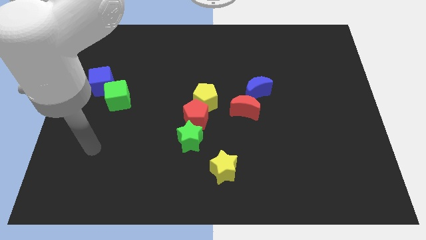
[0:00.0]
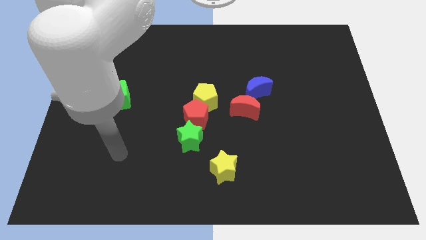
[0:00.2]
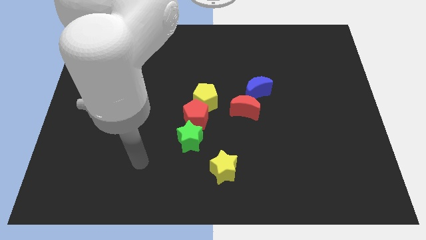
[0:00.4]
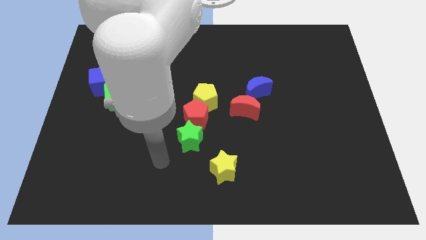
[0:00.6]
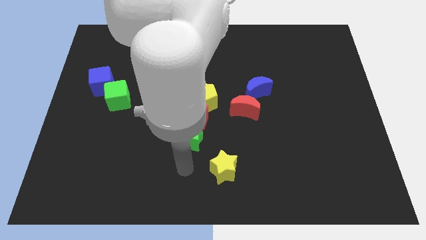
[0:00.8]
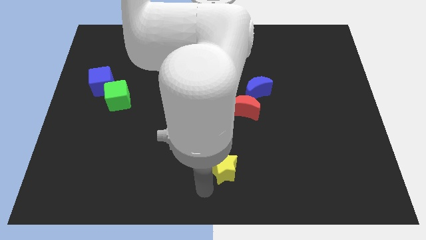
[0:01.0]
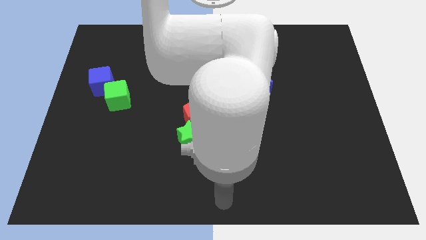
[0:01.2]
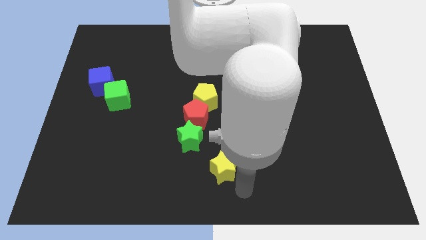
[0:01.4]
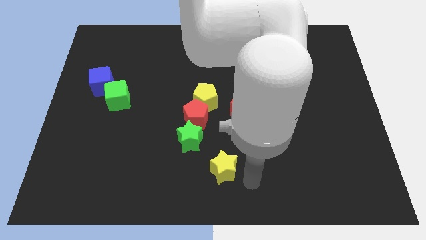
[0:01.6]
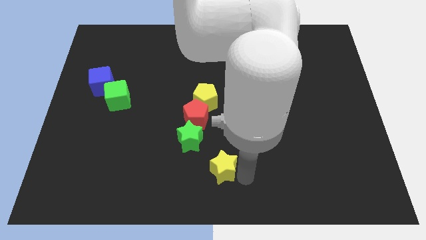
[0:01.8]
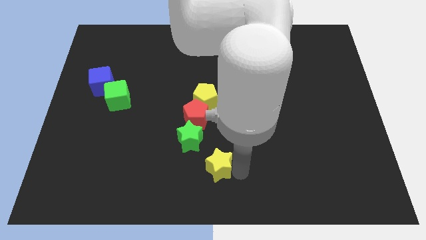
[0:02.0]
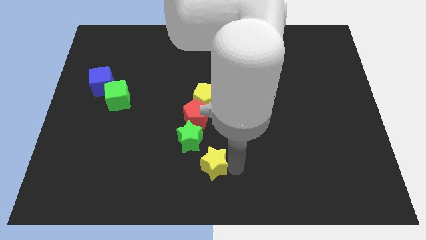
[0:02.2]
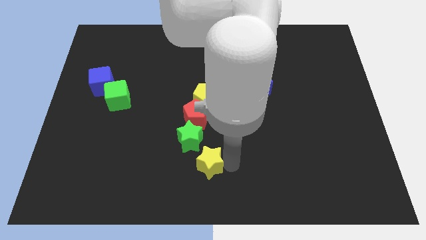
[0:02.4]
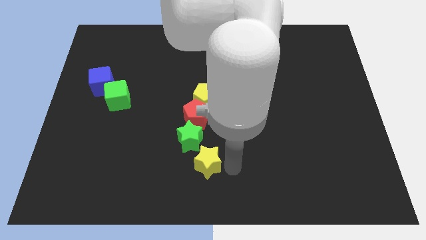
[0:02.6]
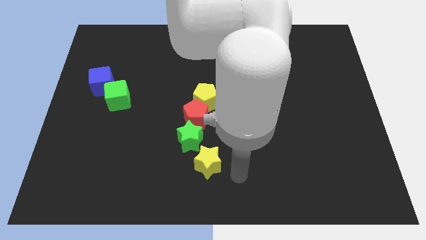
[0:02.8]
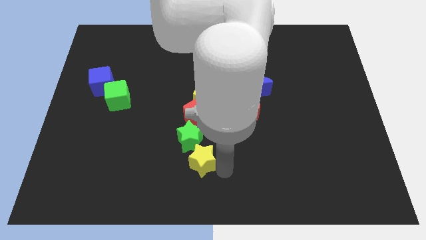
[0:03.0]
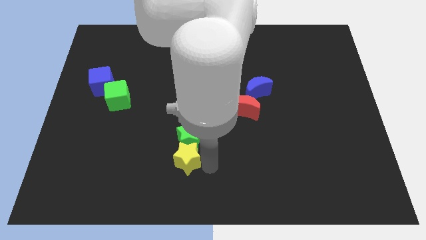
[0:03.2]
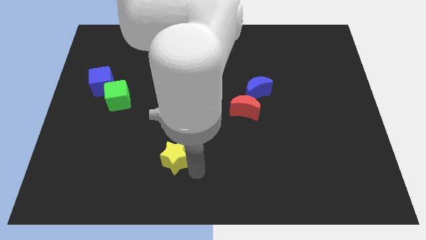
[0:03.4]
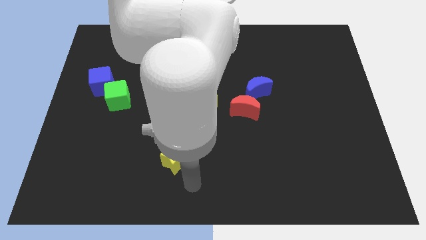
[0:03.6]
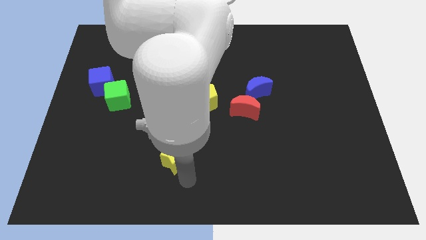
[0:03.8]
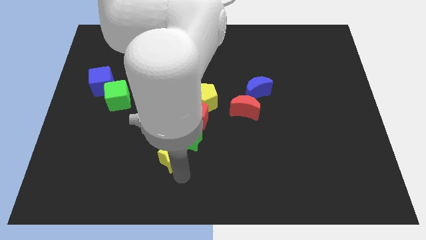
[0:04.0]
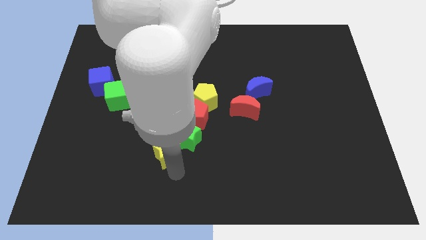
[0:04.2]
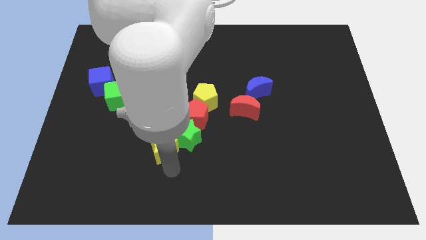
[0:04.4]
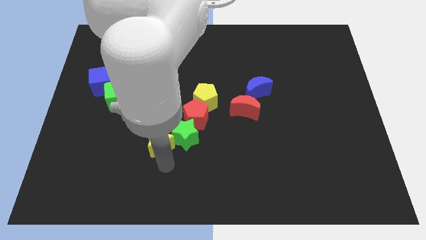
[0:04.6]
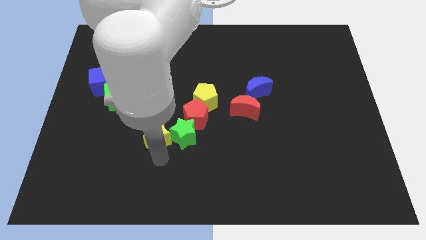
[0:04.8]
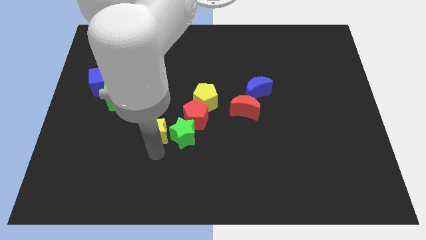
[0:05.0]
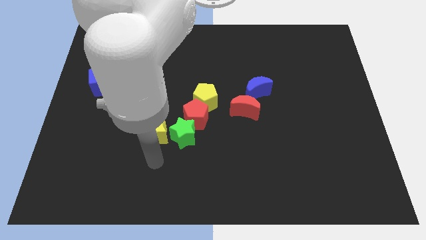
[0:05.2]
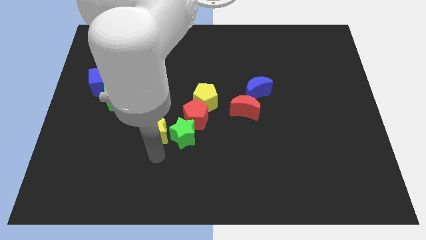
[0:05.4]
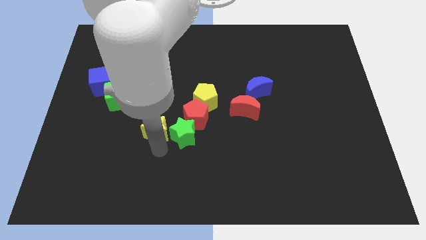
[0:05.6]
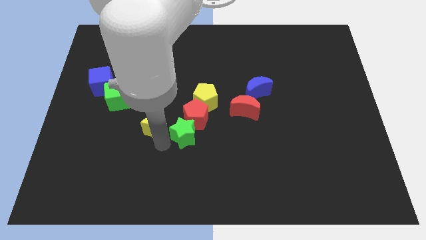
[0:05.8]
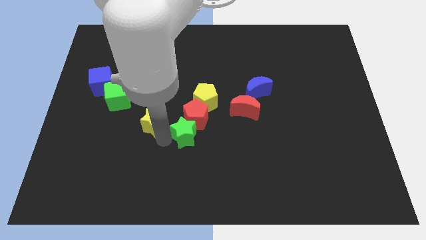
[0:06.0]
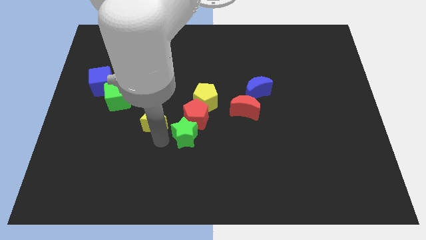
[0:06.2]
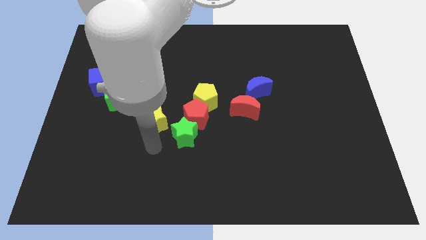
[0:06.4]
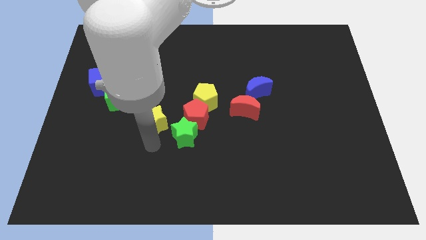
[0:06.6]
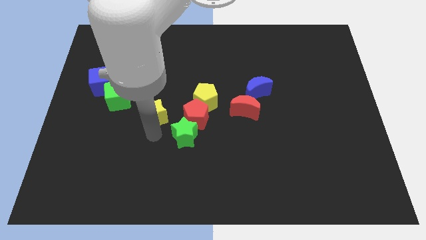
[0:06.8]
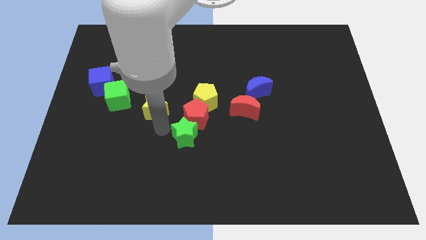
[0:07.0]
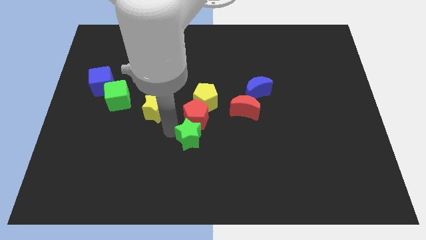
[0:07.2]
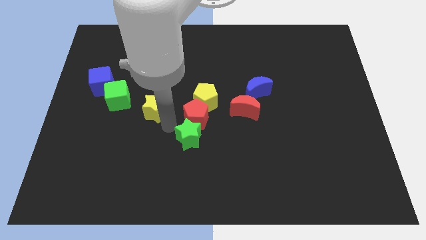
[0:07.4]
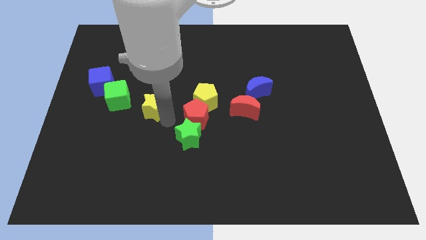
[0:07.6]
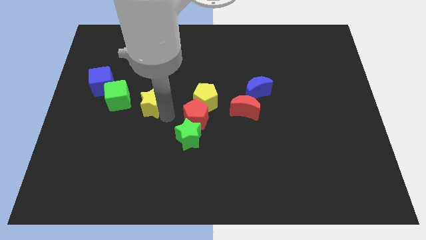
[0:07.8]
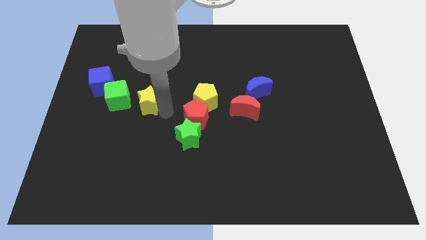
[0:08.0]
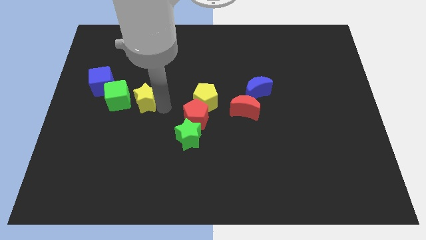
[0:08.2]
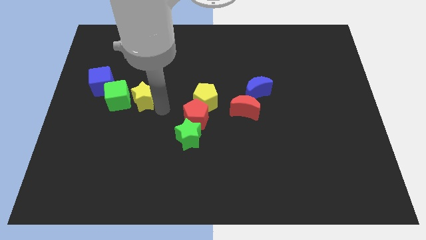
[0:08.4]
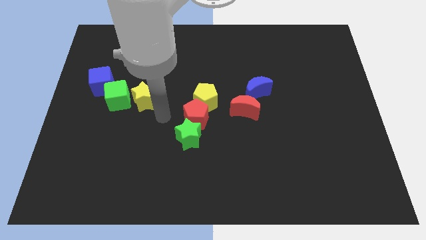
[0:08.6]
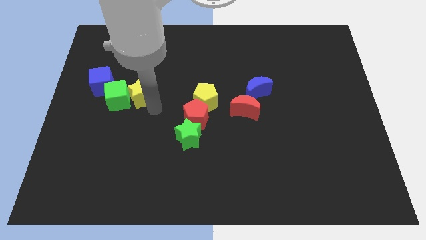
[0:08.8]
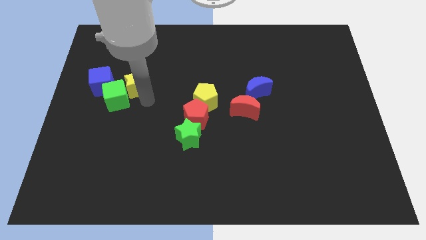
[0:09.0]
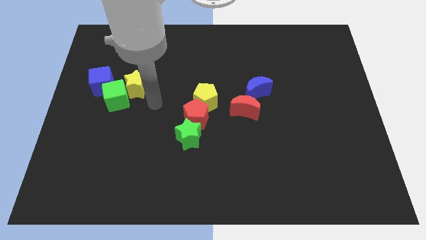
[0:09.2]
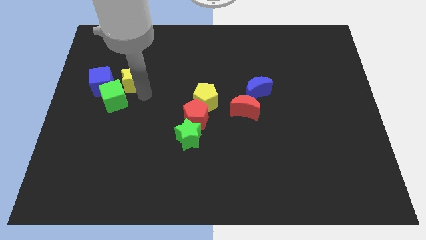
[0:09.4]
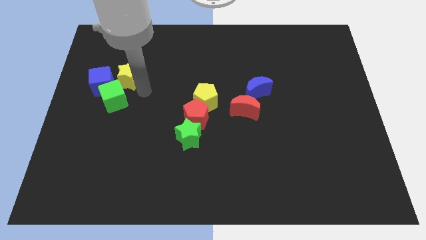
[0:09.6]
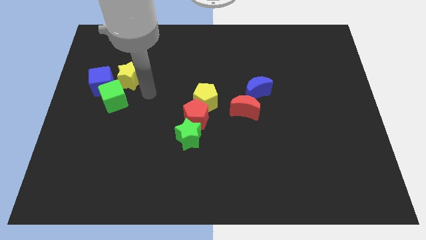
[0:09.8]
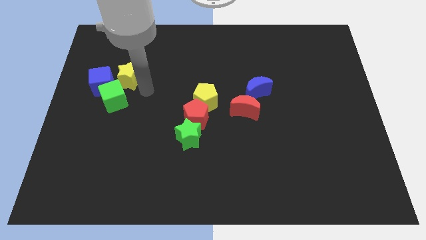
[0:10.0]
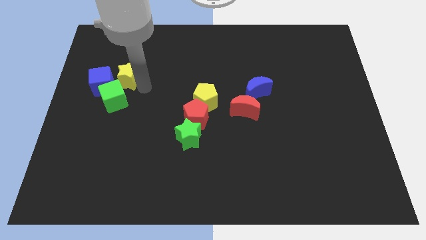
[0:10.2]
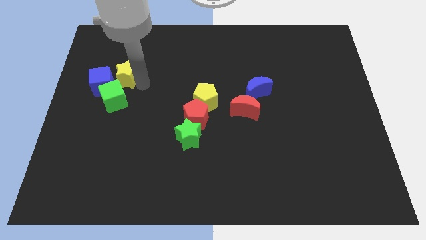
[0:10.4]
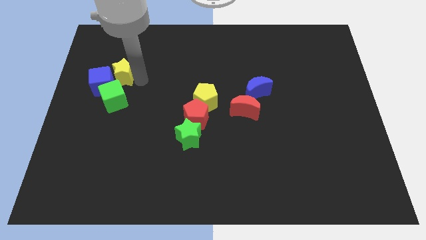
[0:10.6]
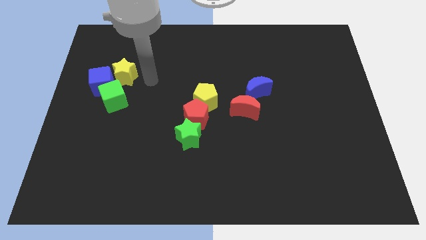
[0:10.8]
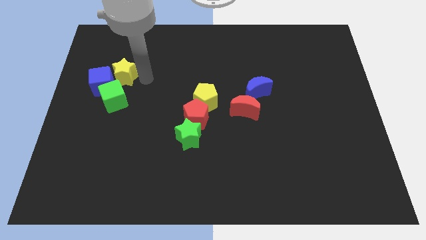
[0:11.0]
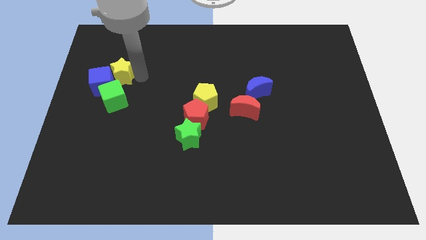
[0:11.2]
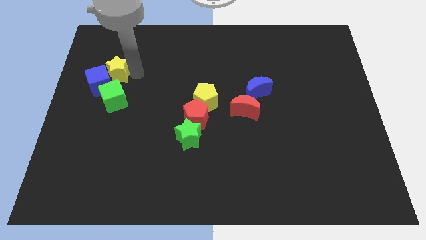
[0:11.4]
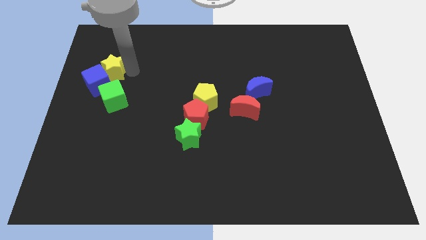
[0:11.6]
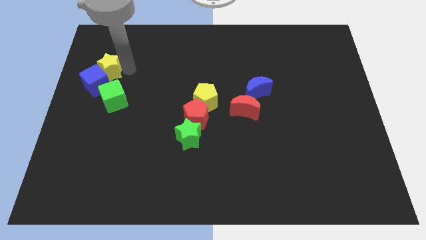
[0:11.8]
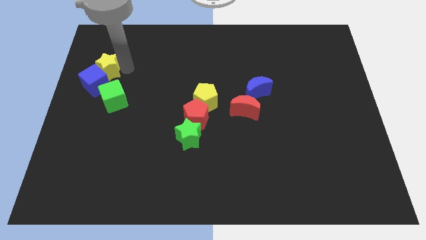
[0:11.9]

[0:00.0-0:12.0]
slide the yellow star to the top left side of the green cube

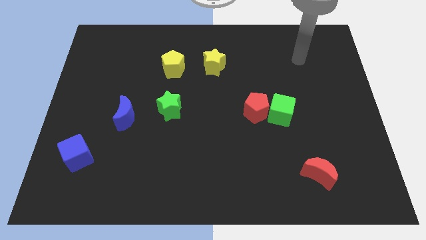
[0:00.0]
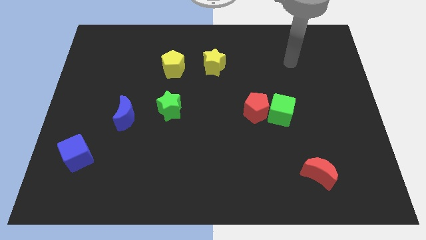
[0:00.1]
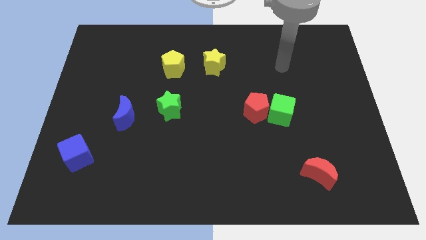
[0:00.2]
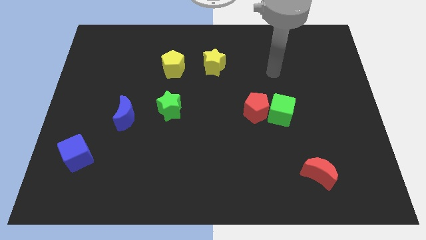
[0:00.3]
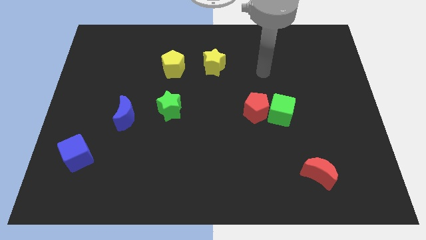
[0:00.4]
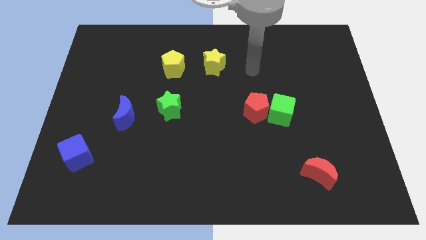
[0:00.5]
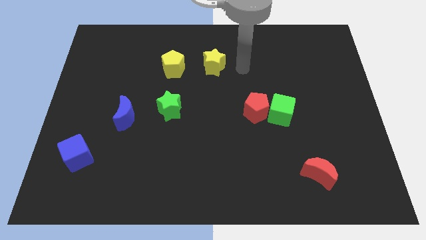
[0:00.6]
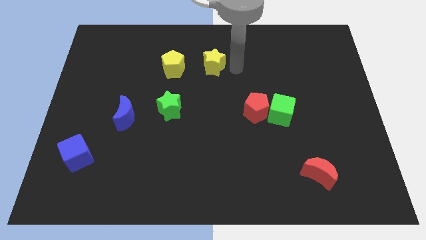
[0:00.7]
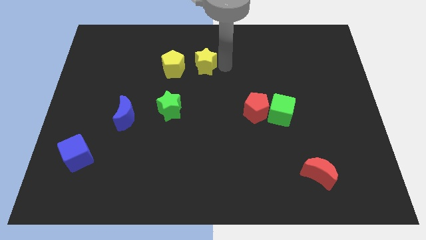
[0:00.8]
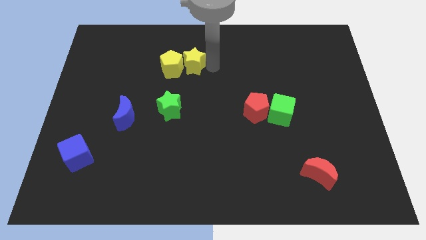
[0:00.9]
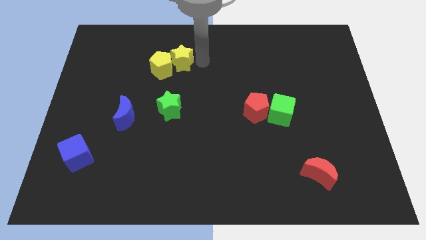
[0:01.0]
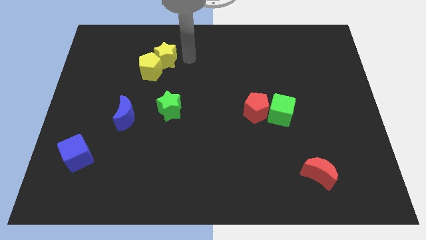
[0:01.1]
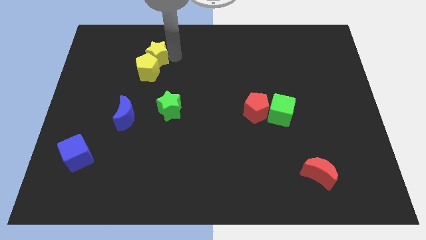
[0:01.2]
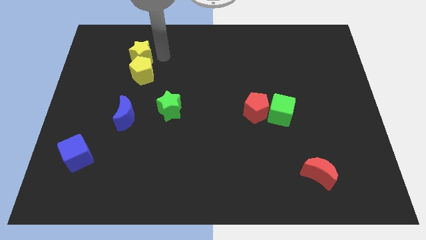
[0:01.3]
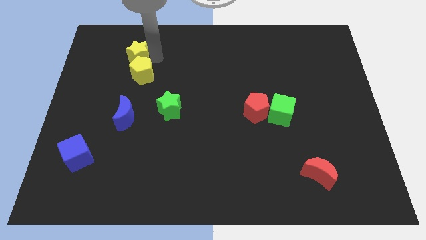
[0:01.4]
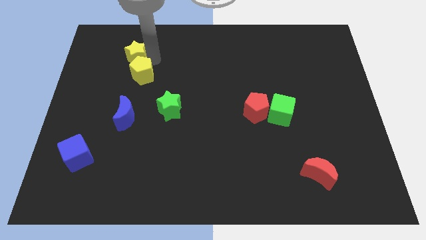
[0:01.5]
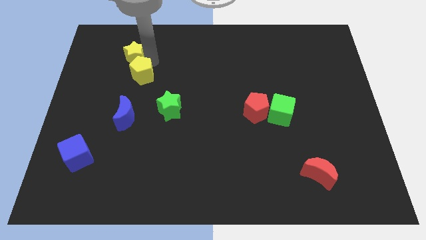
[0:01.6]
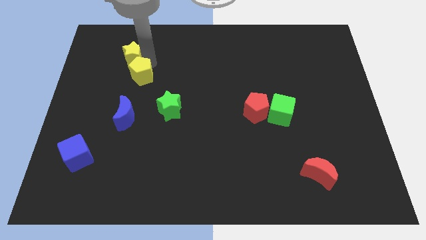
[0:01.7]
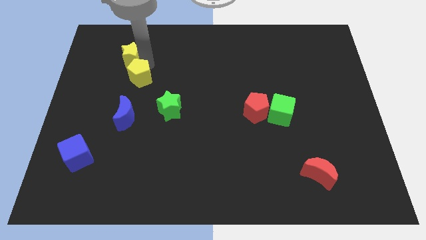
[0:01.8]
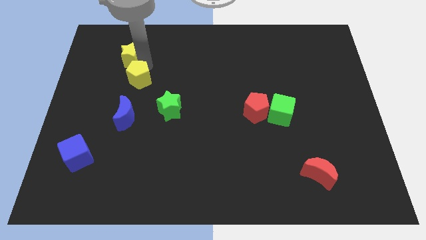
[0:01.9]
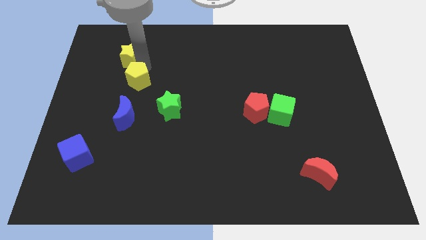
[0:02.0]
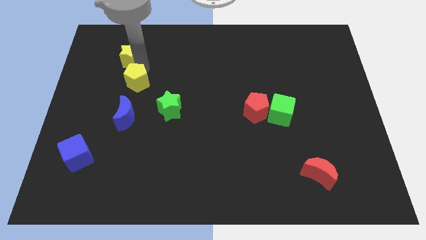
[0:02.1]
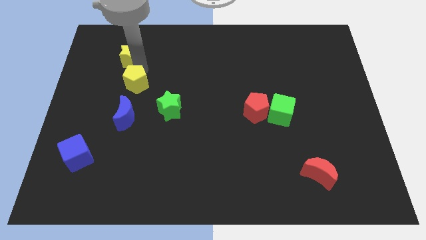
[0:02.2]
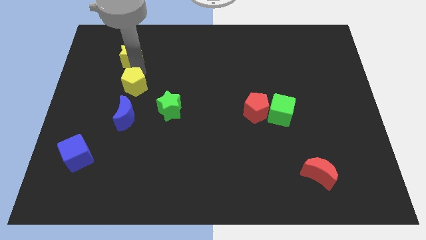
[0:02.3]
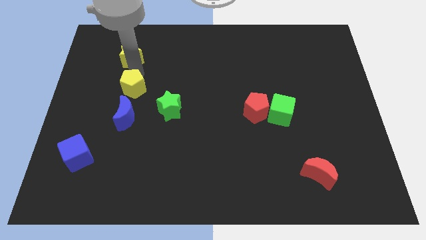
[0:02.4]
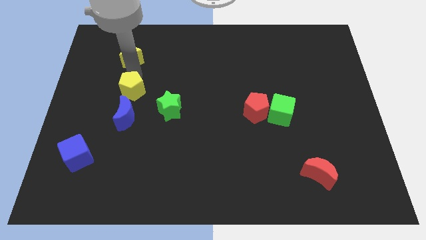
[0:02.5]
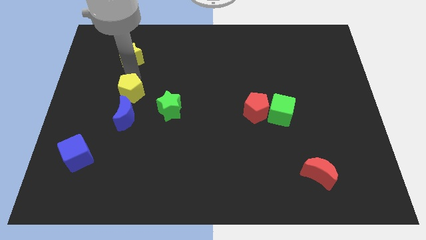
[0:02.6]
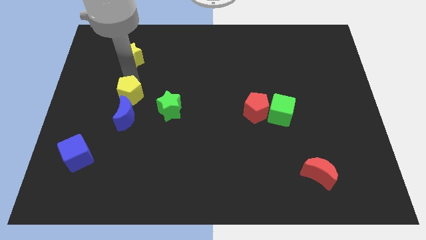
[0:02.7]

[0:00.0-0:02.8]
move the yellow pentagon to the left of the green star
